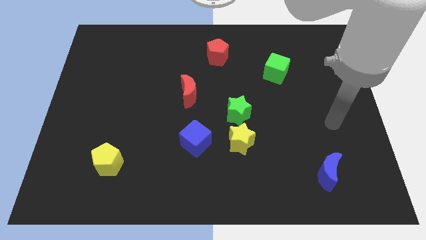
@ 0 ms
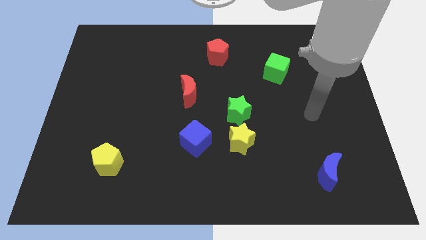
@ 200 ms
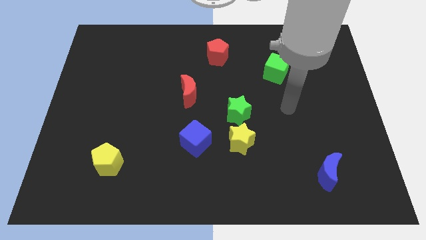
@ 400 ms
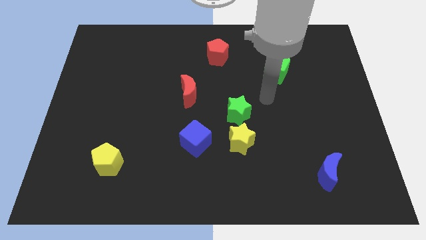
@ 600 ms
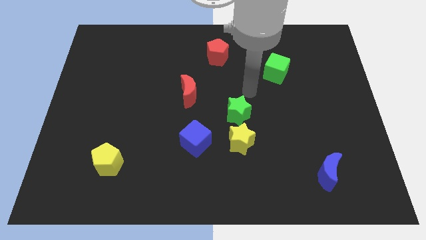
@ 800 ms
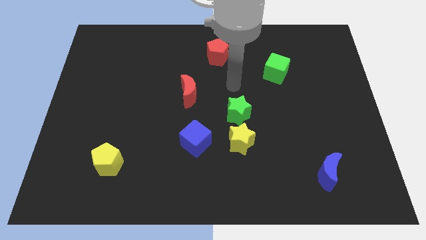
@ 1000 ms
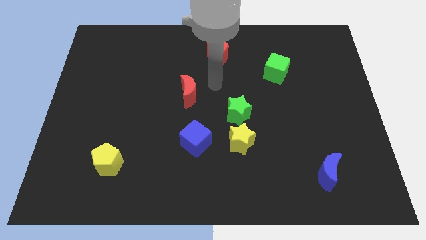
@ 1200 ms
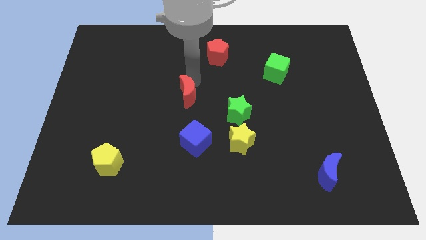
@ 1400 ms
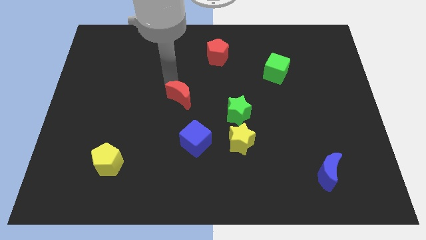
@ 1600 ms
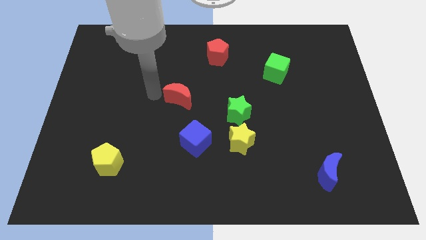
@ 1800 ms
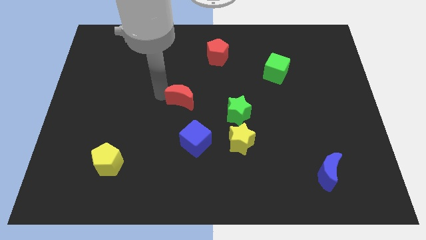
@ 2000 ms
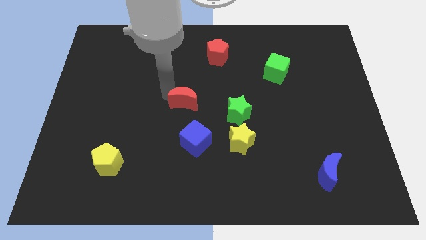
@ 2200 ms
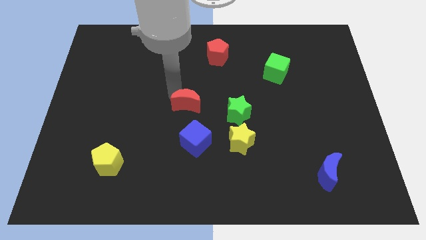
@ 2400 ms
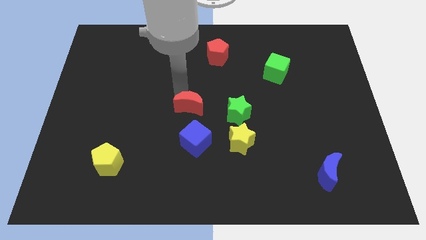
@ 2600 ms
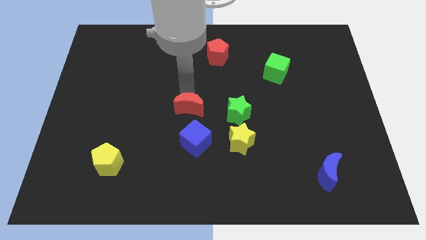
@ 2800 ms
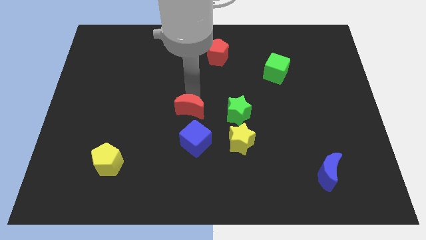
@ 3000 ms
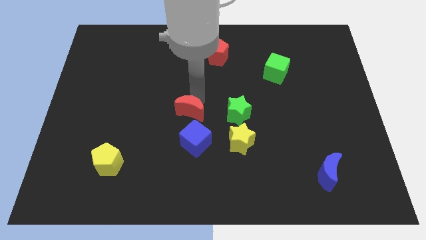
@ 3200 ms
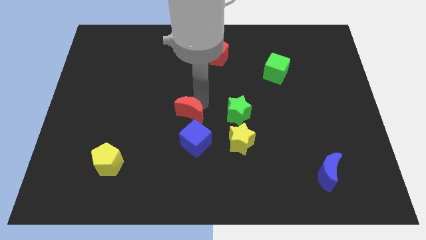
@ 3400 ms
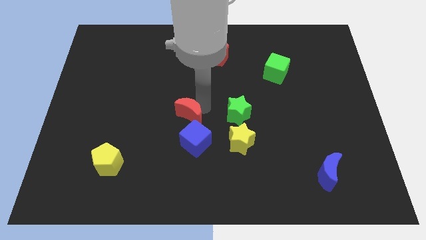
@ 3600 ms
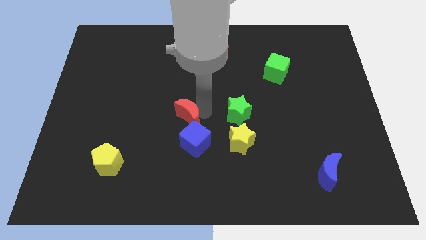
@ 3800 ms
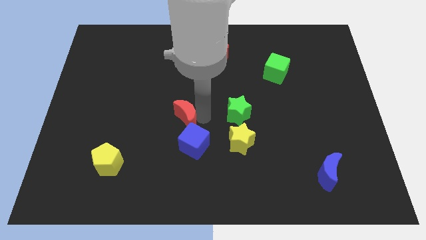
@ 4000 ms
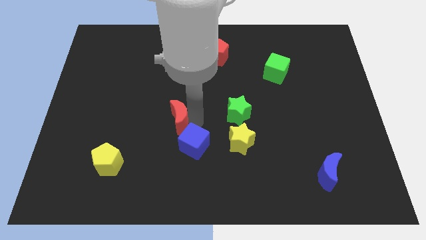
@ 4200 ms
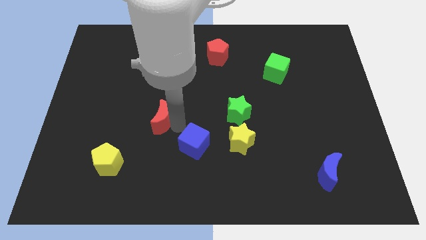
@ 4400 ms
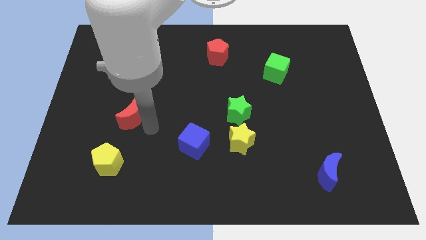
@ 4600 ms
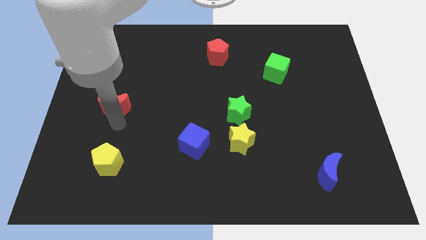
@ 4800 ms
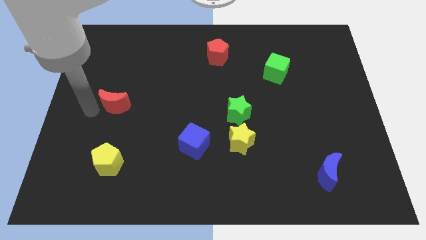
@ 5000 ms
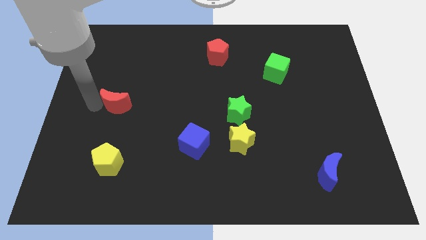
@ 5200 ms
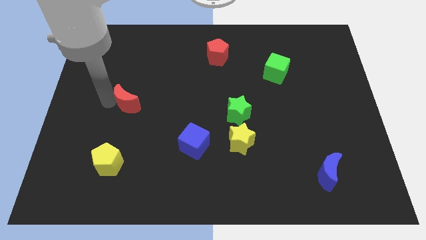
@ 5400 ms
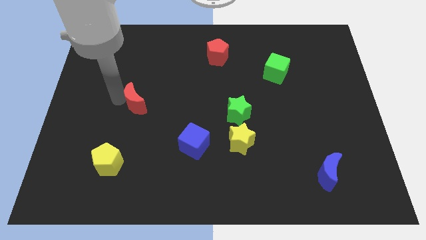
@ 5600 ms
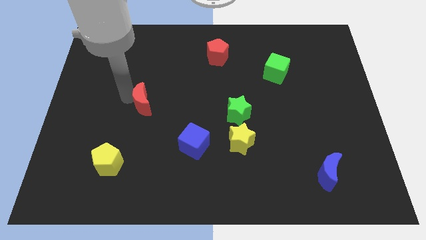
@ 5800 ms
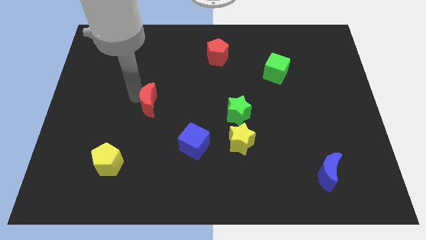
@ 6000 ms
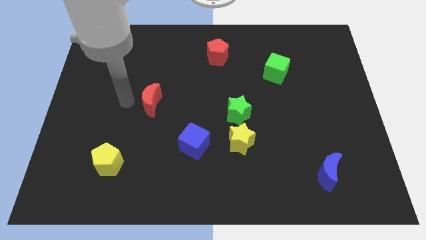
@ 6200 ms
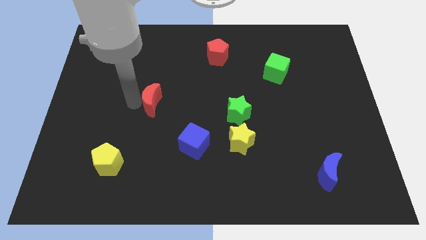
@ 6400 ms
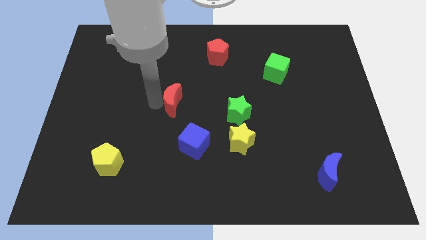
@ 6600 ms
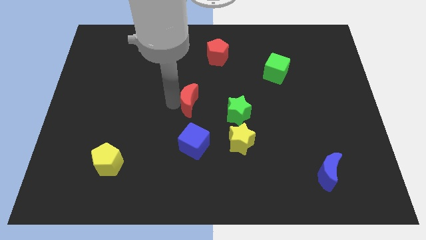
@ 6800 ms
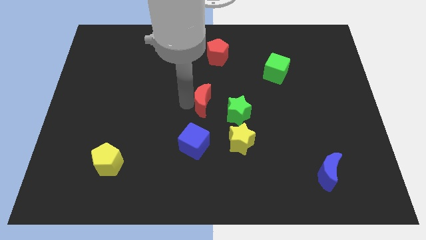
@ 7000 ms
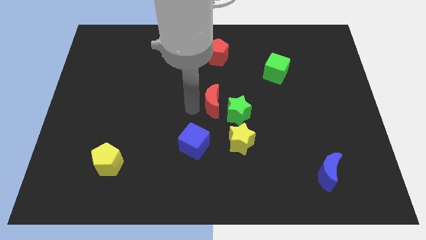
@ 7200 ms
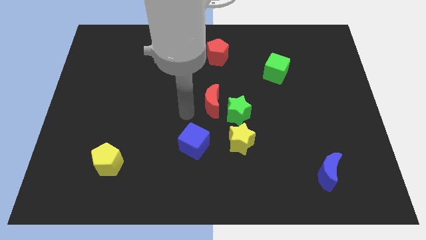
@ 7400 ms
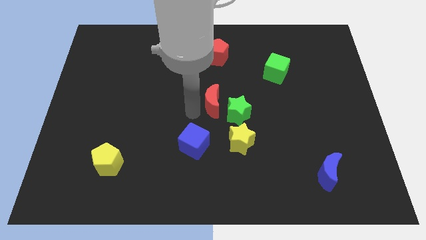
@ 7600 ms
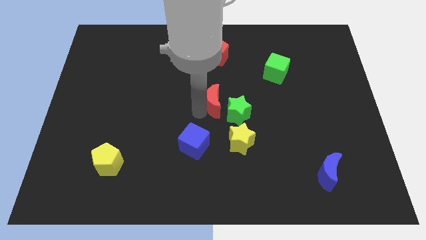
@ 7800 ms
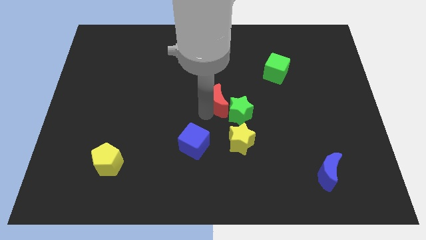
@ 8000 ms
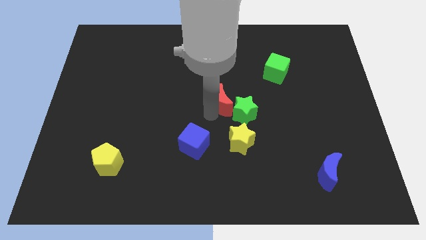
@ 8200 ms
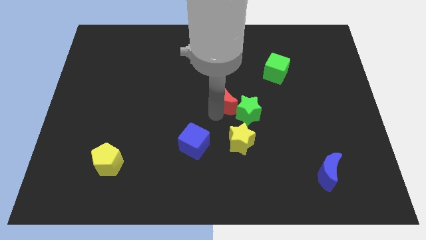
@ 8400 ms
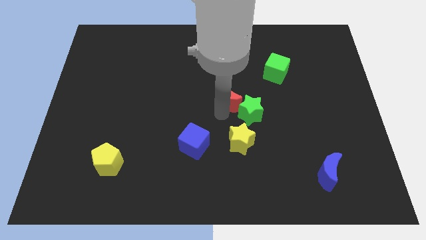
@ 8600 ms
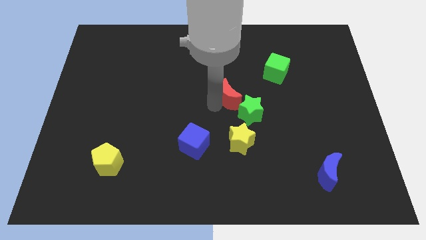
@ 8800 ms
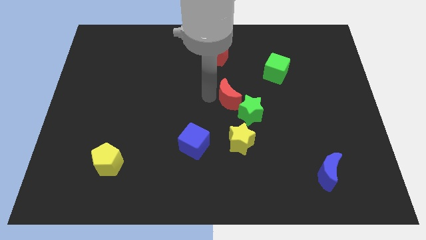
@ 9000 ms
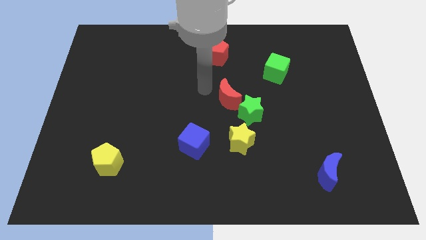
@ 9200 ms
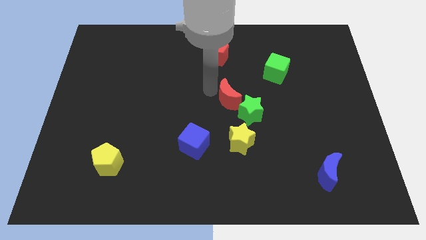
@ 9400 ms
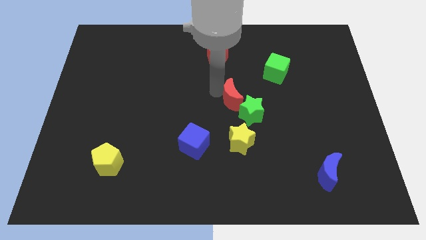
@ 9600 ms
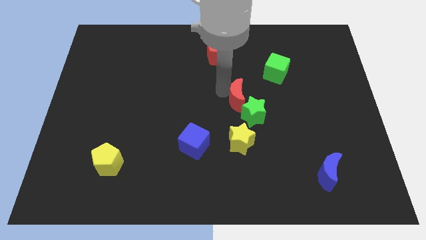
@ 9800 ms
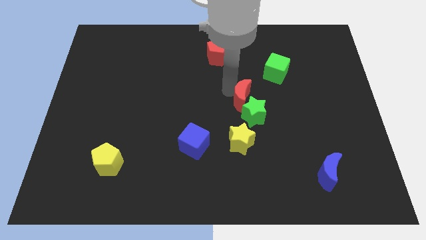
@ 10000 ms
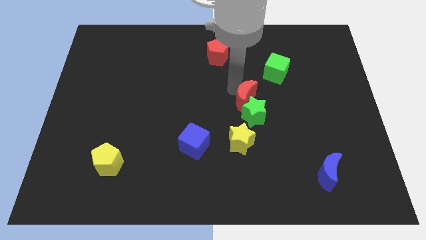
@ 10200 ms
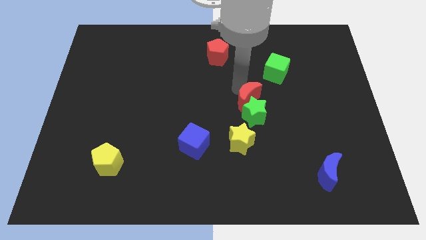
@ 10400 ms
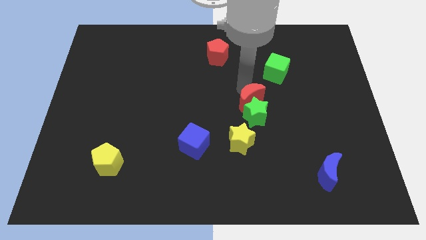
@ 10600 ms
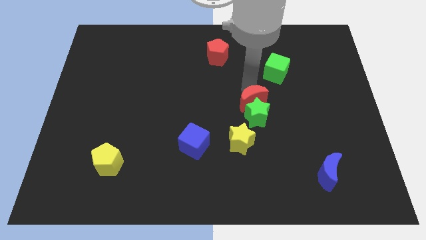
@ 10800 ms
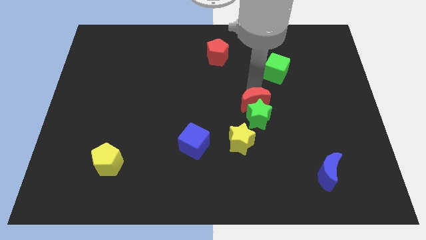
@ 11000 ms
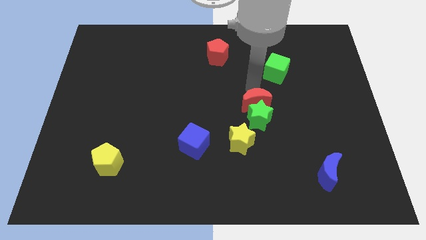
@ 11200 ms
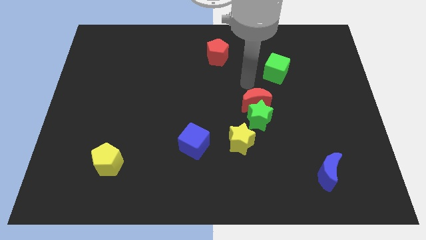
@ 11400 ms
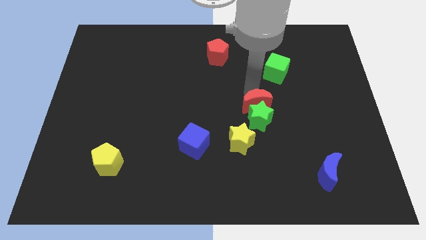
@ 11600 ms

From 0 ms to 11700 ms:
move the red moon diagonally up and to the right of the yellow star

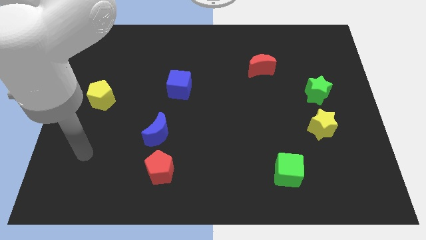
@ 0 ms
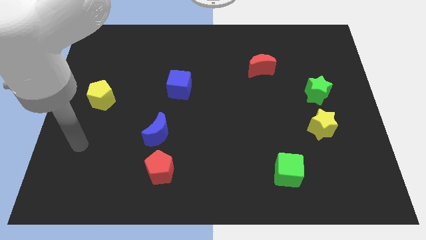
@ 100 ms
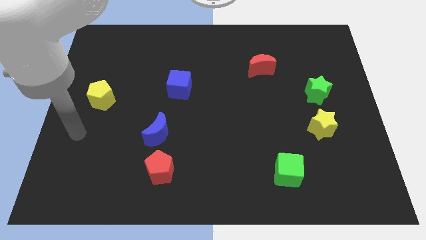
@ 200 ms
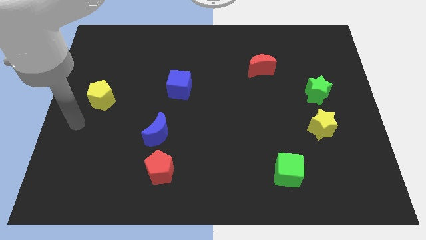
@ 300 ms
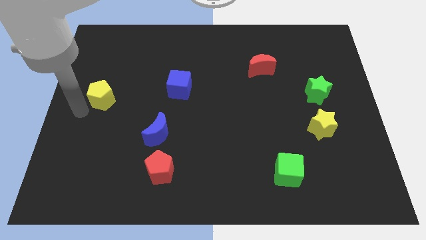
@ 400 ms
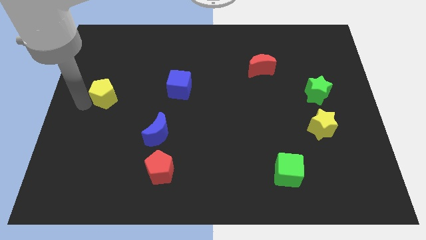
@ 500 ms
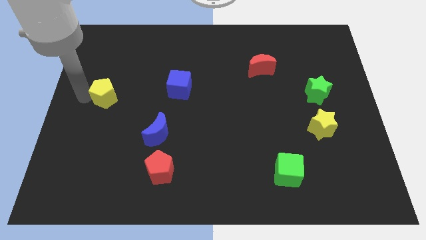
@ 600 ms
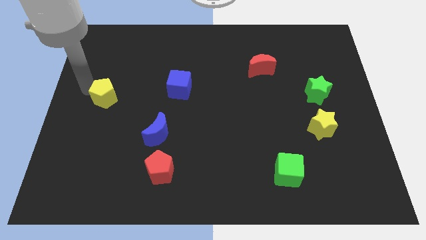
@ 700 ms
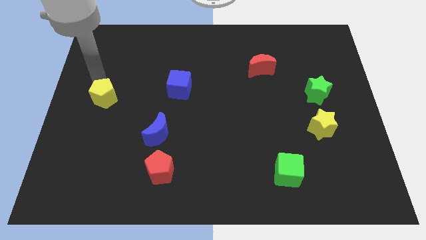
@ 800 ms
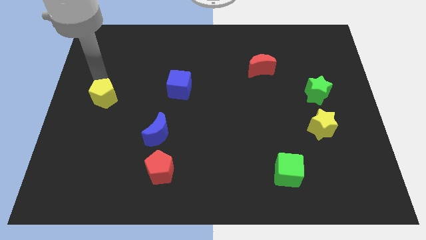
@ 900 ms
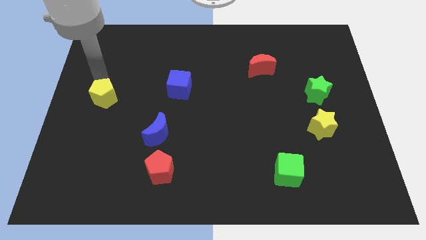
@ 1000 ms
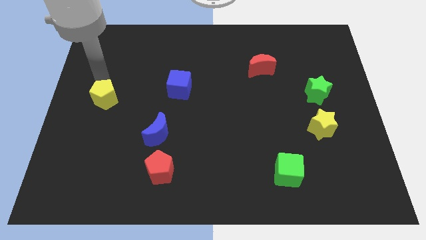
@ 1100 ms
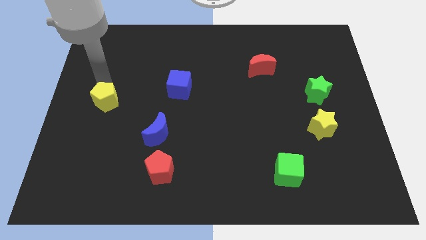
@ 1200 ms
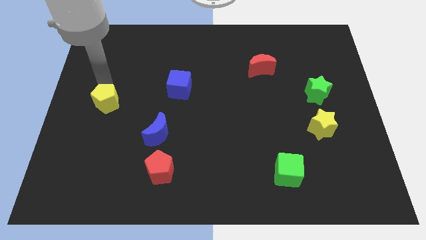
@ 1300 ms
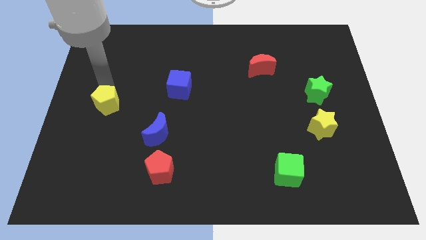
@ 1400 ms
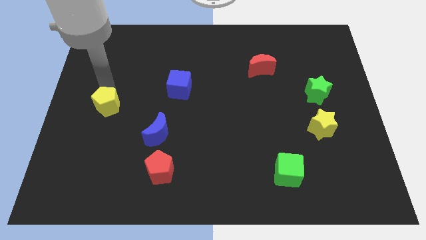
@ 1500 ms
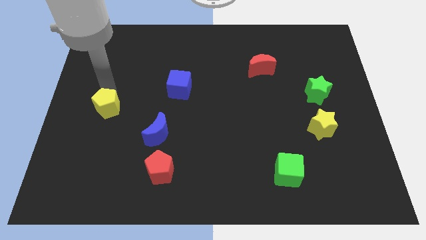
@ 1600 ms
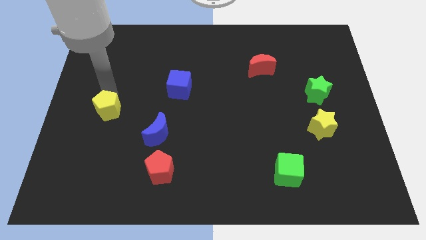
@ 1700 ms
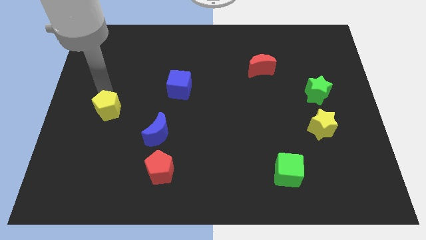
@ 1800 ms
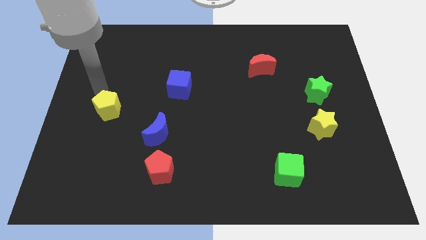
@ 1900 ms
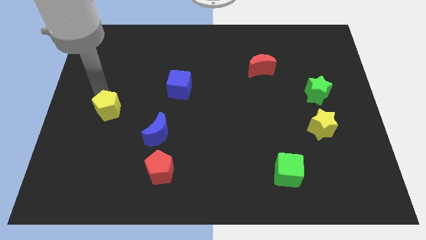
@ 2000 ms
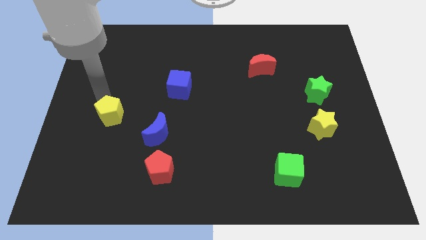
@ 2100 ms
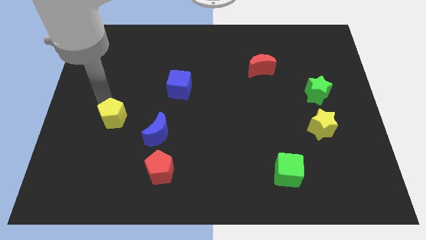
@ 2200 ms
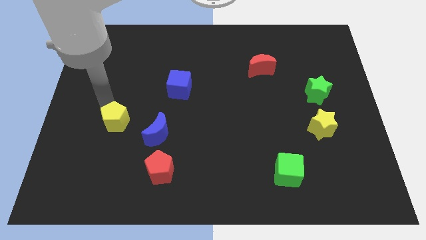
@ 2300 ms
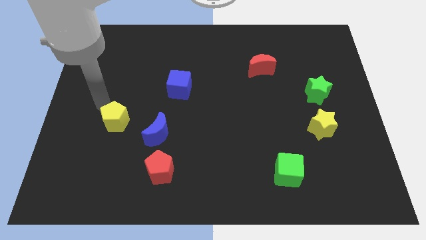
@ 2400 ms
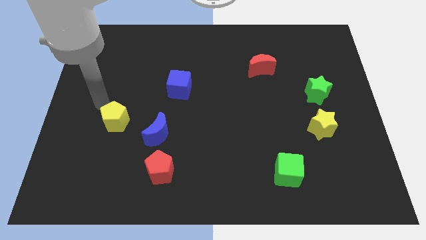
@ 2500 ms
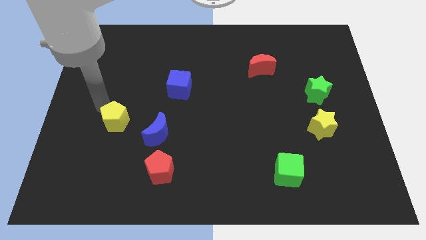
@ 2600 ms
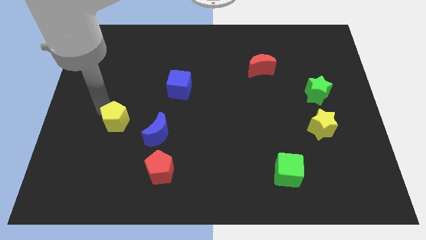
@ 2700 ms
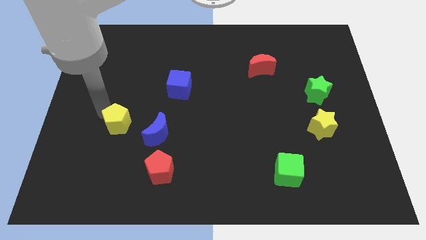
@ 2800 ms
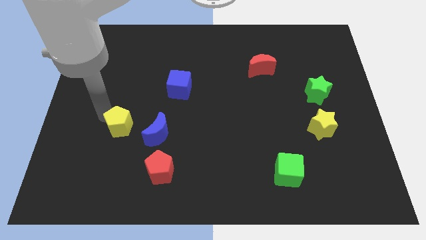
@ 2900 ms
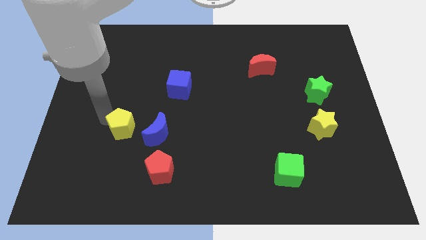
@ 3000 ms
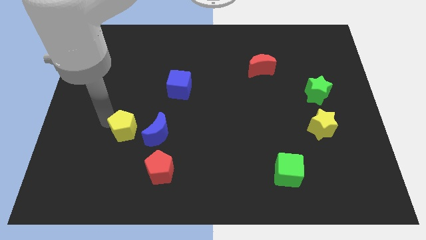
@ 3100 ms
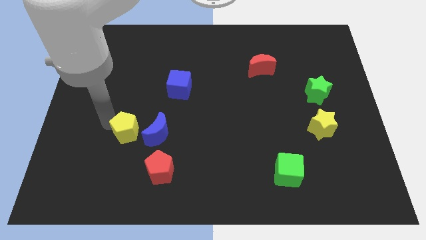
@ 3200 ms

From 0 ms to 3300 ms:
push the yellow pentagon to the top left side of the red pentagon
